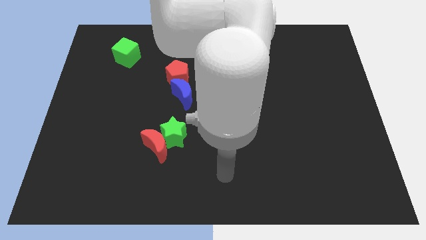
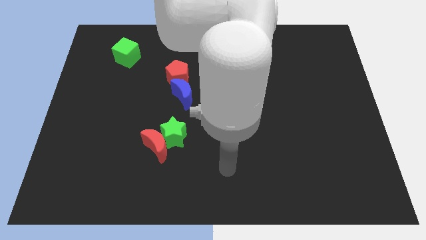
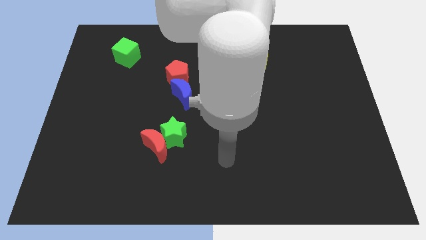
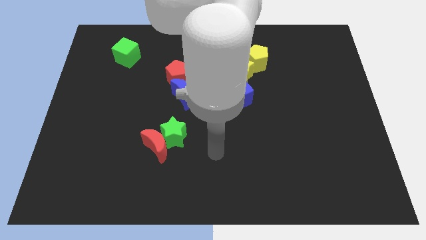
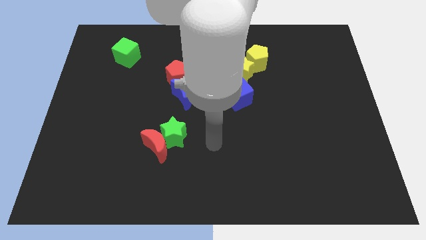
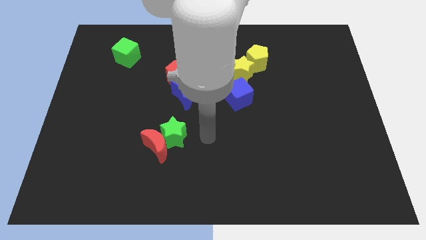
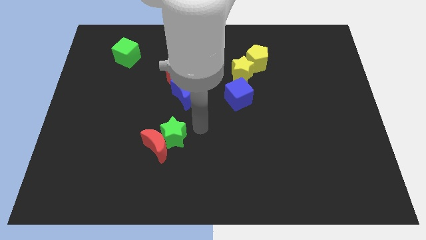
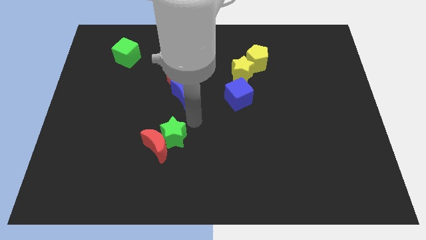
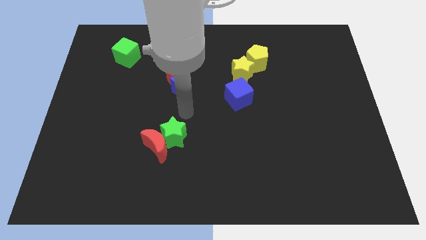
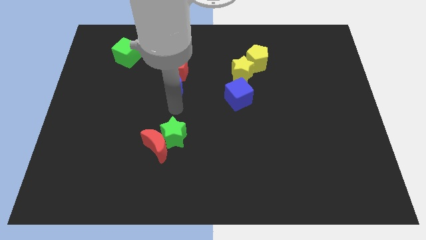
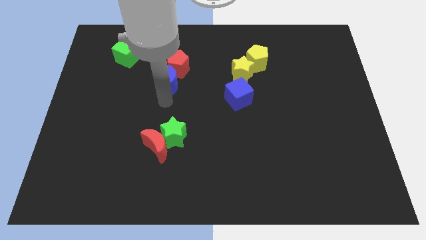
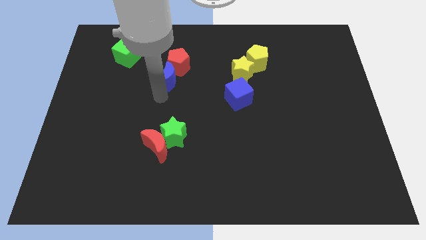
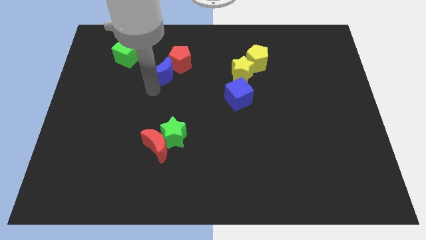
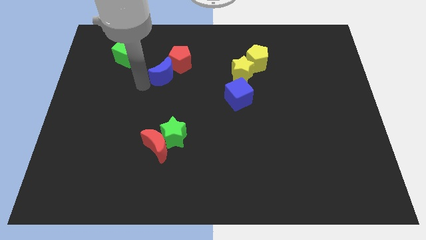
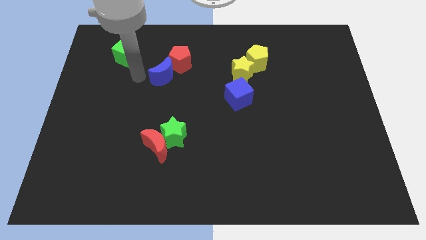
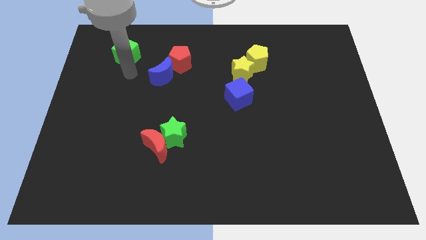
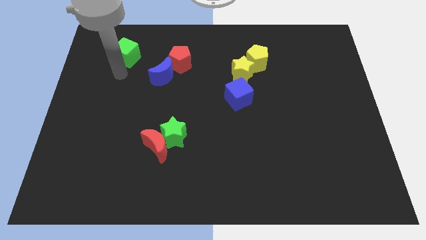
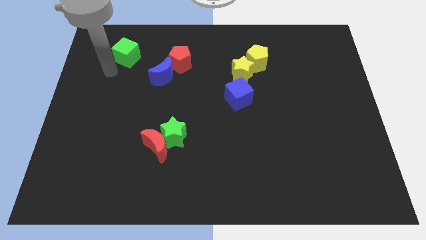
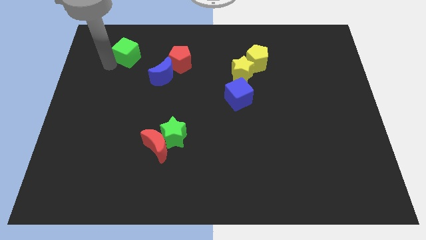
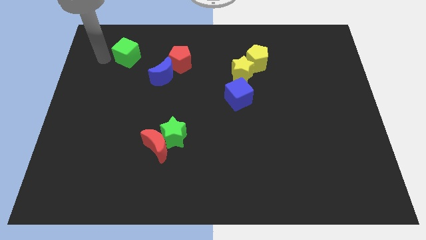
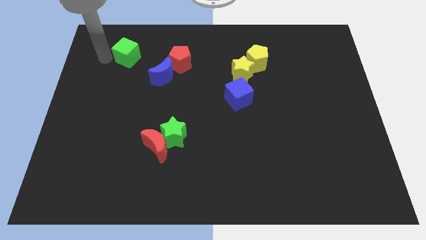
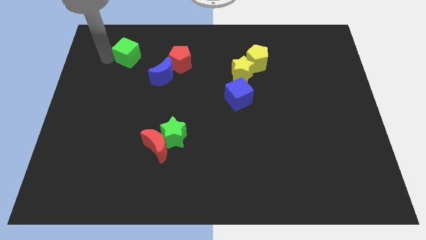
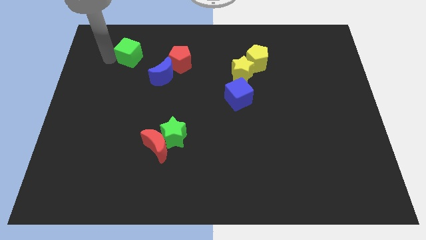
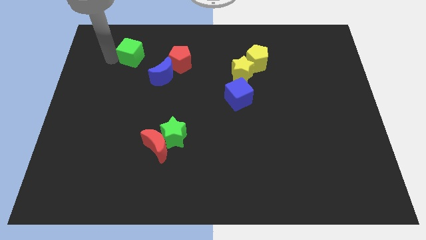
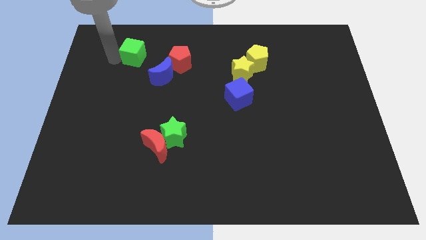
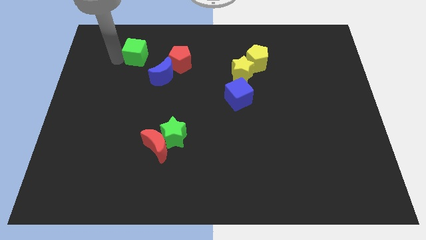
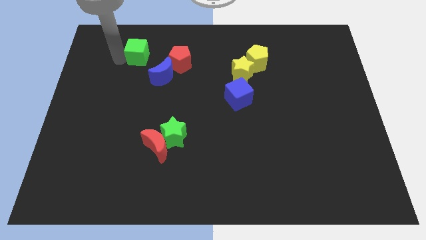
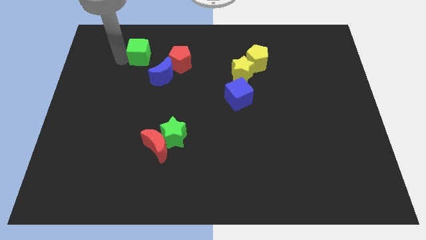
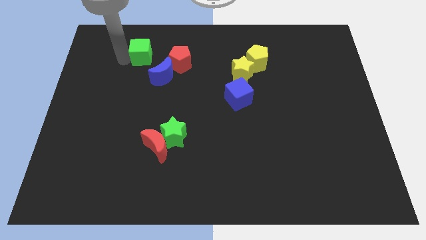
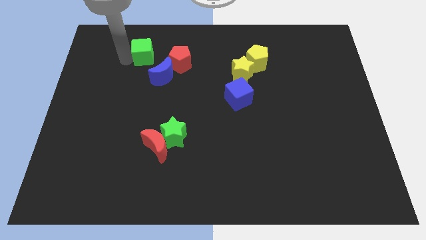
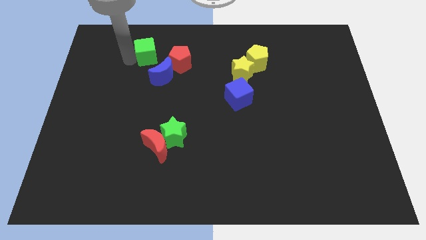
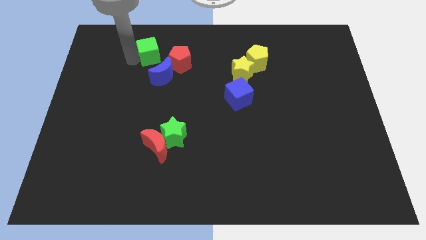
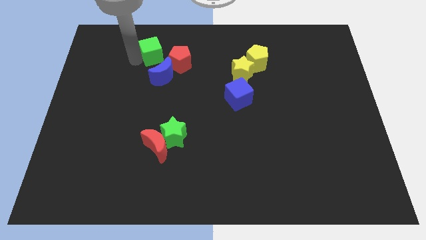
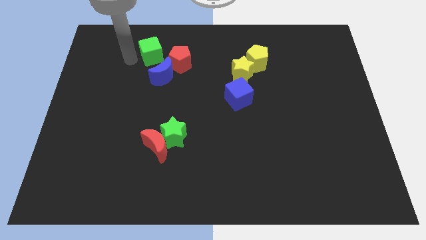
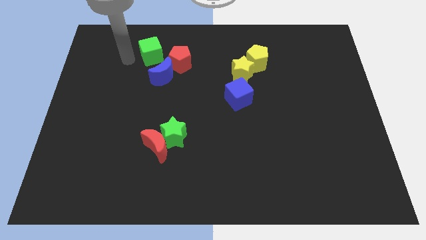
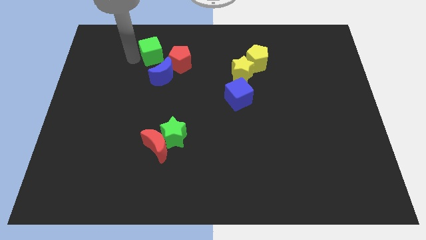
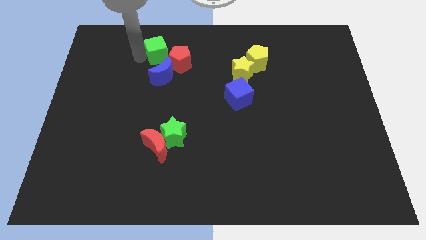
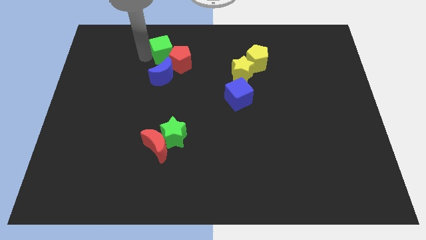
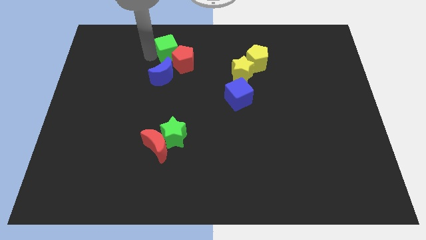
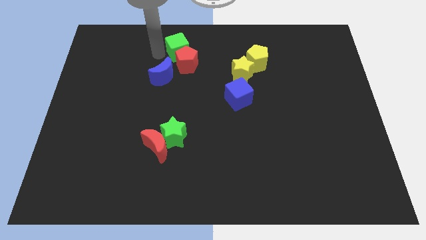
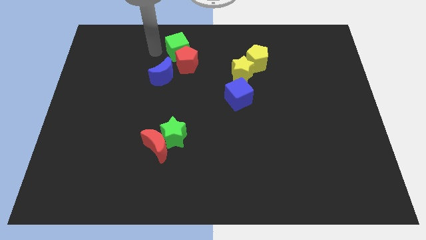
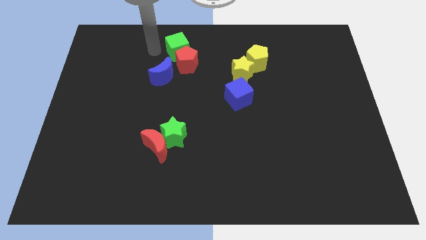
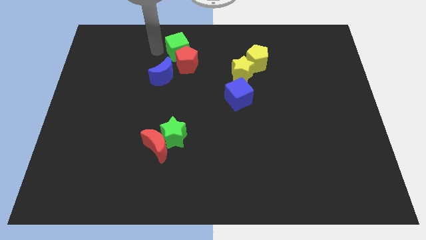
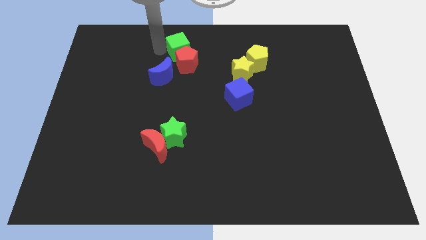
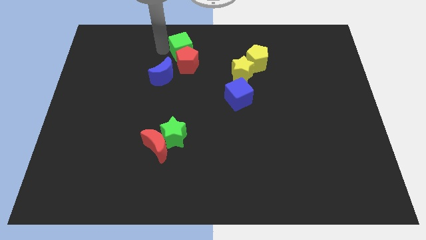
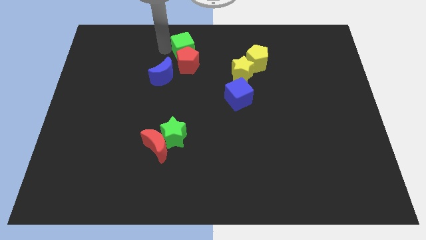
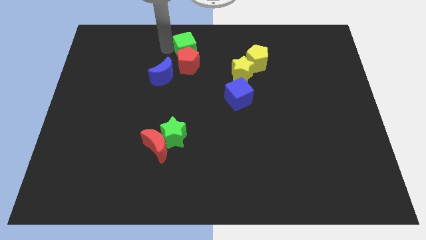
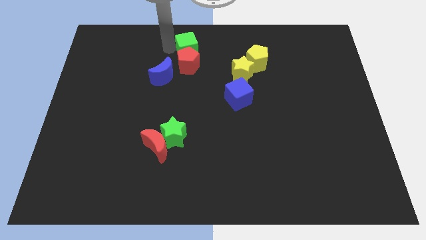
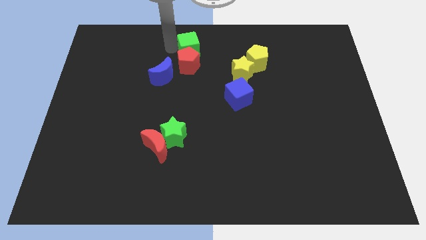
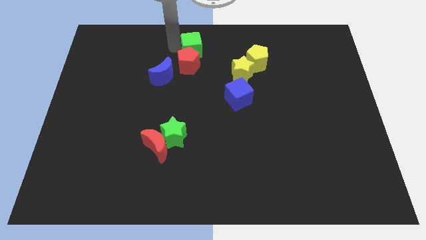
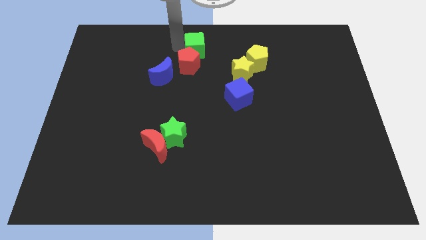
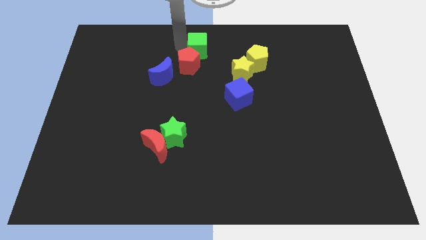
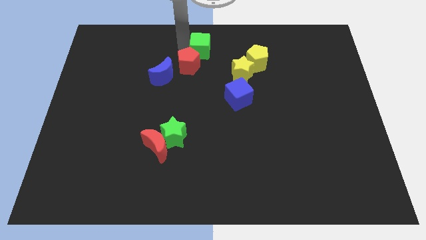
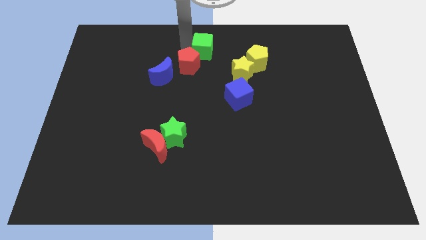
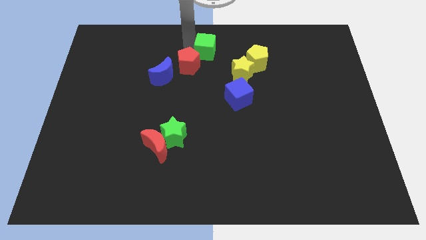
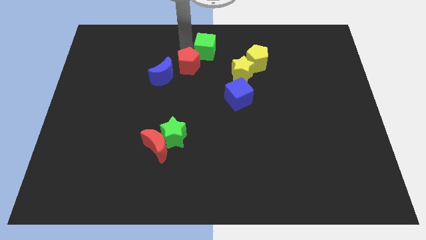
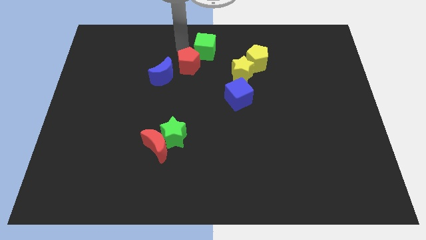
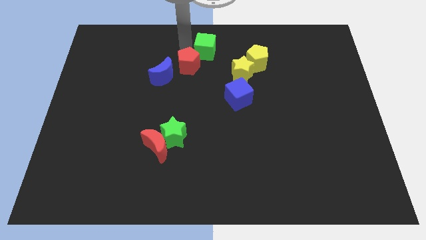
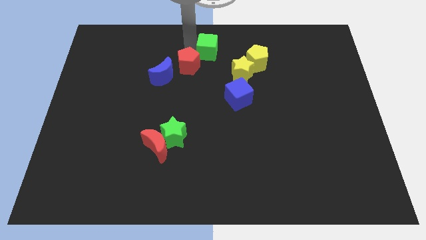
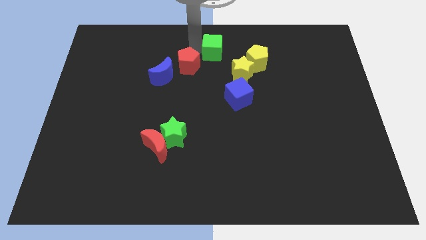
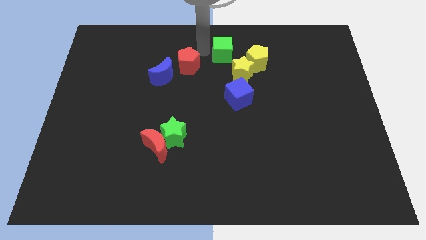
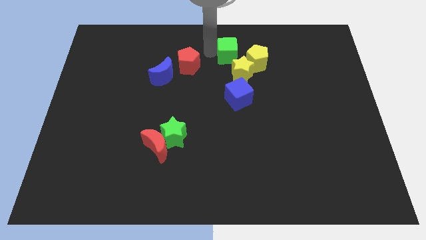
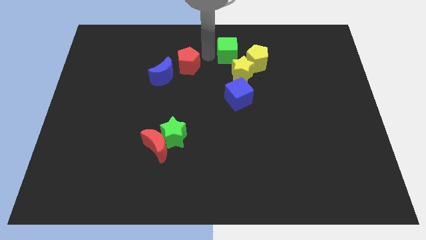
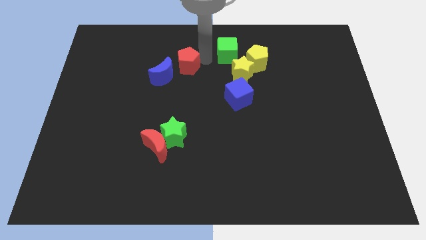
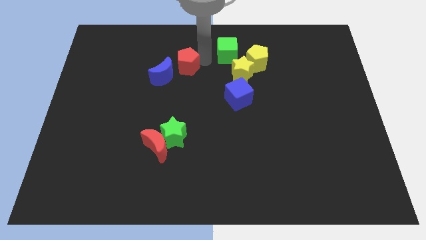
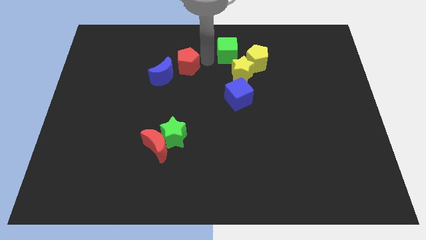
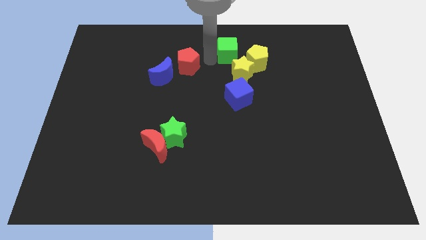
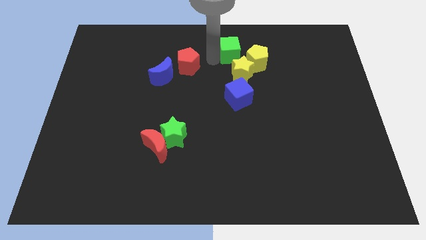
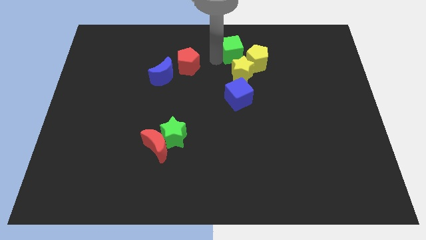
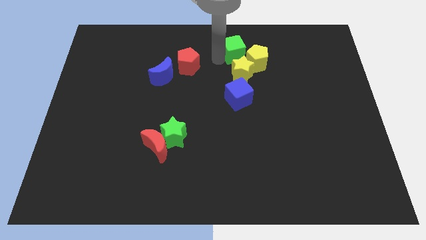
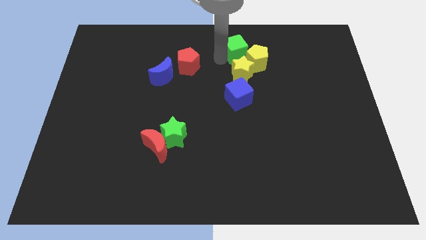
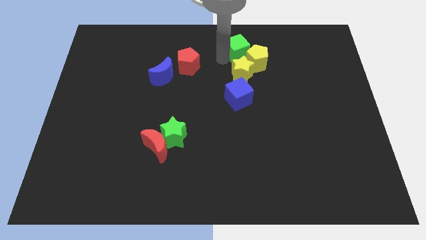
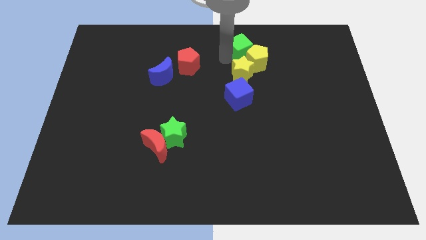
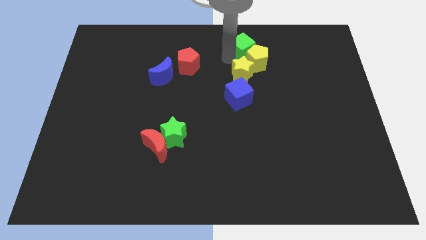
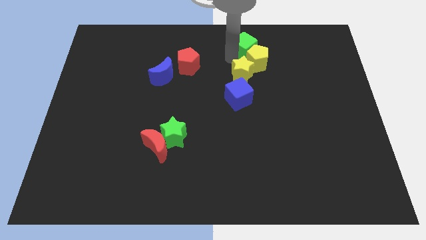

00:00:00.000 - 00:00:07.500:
slide the green cube to the top right of the yellow star

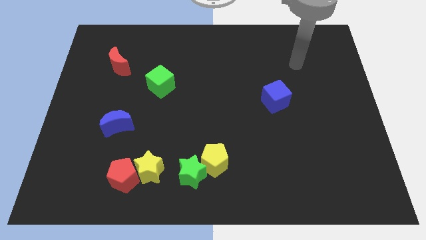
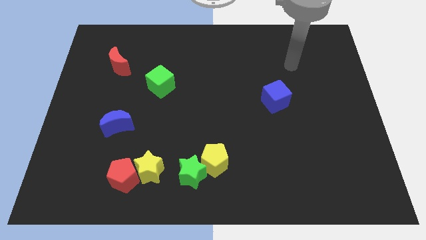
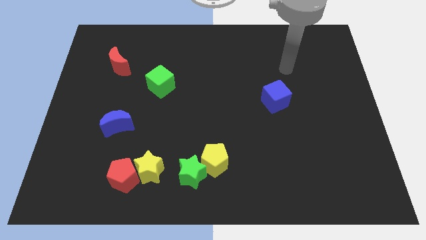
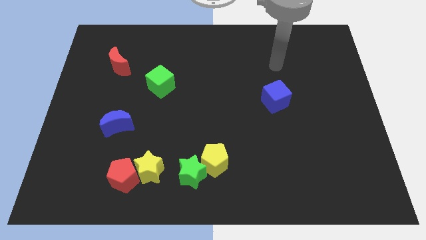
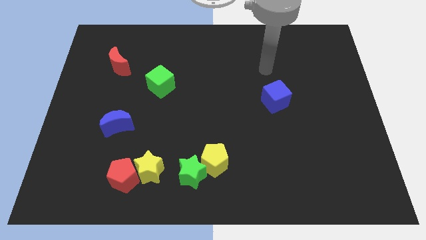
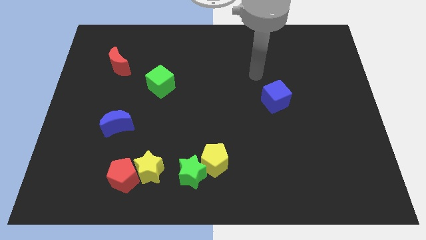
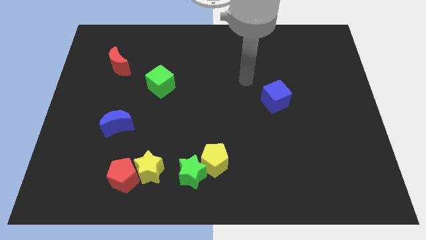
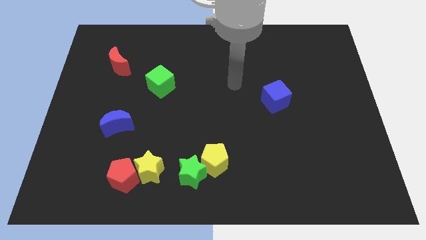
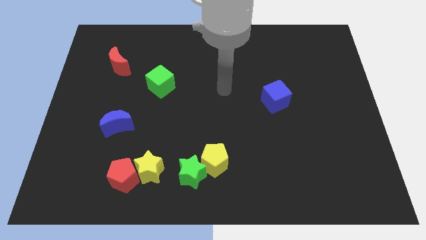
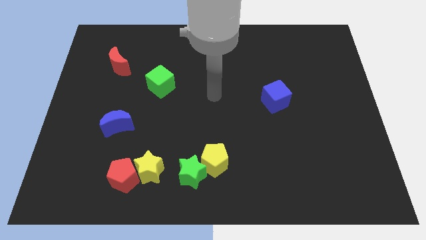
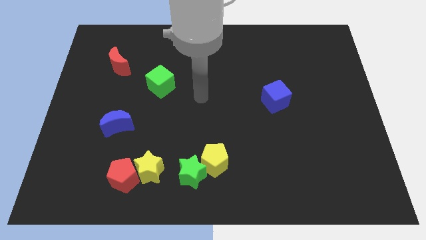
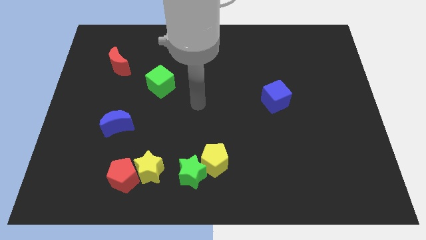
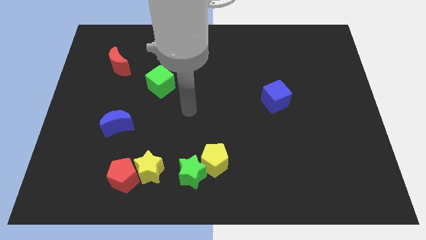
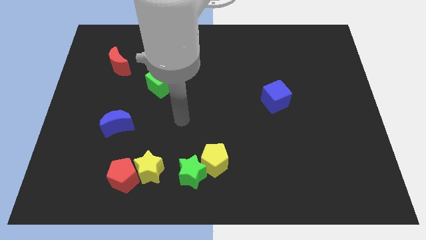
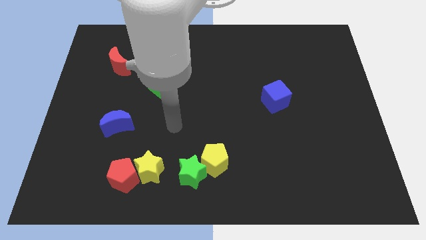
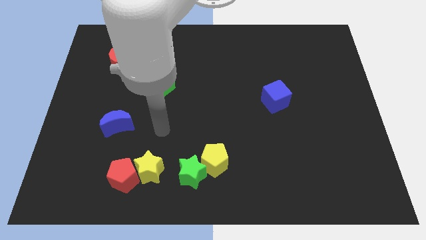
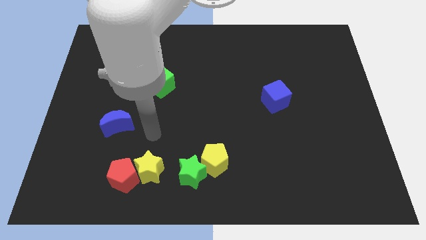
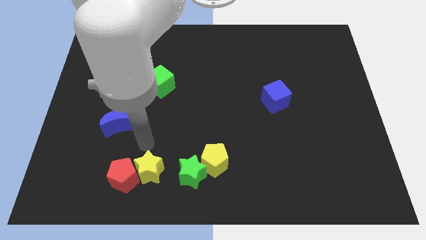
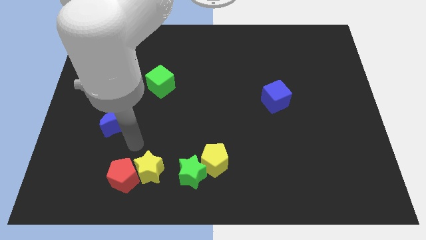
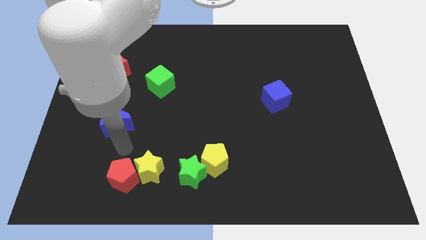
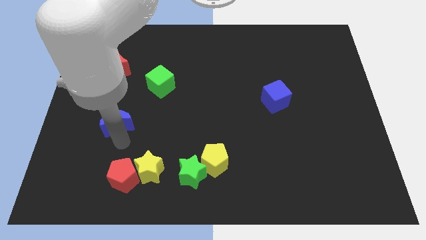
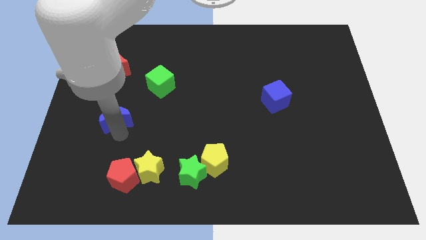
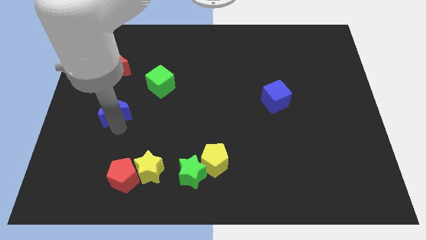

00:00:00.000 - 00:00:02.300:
slide the blue moon below the red moon
